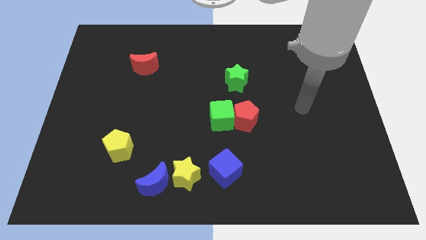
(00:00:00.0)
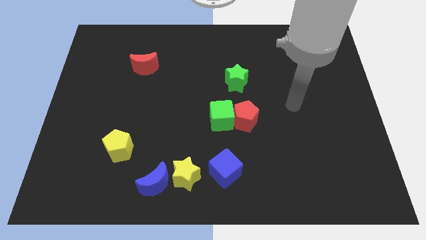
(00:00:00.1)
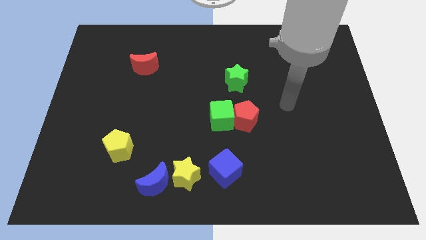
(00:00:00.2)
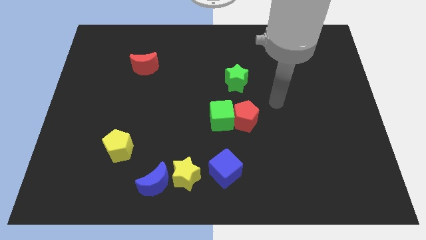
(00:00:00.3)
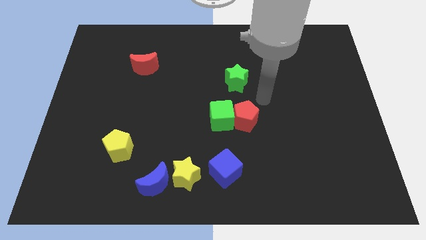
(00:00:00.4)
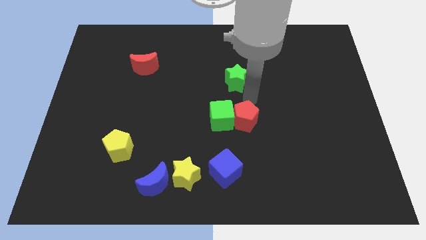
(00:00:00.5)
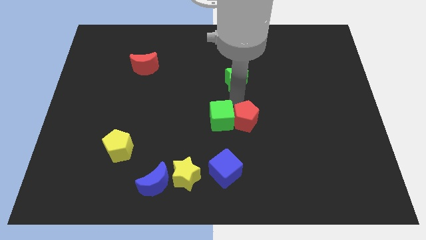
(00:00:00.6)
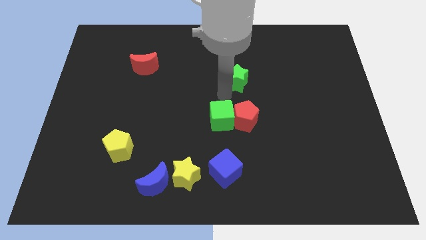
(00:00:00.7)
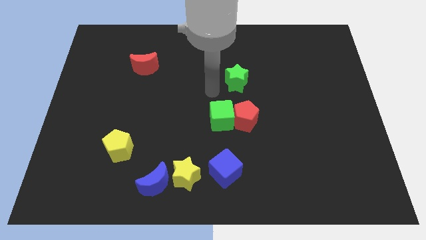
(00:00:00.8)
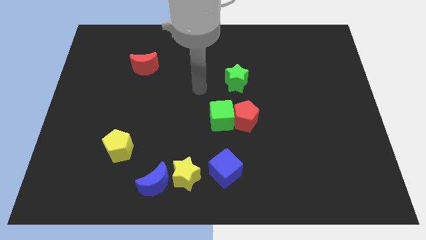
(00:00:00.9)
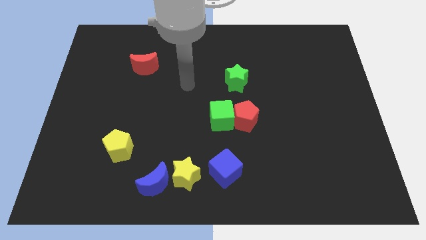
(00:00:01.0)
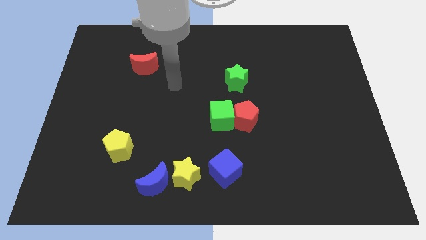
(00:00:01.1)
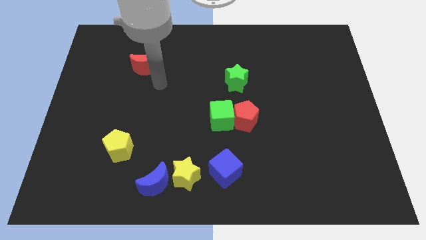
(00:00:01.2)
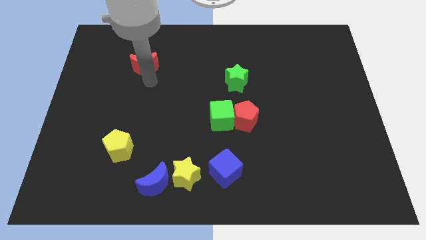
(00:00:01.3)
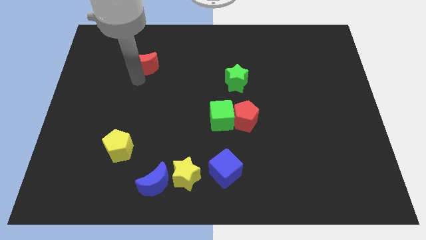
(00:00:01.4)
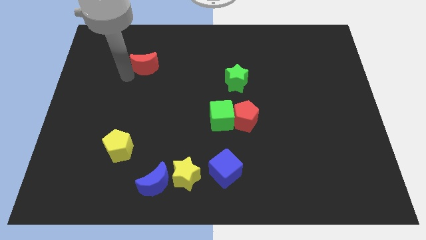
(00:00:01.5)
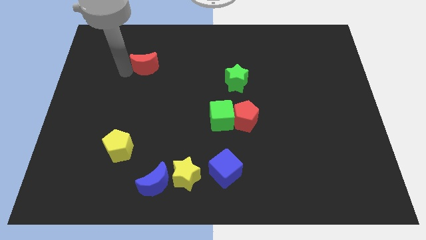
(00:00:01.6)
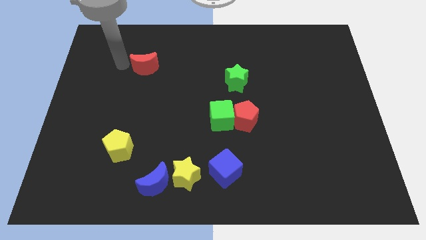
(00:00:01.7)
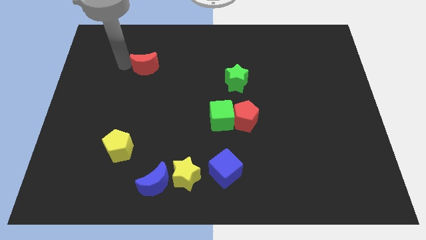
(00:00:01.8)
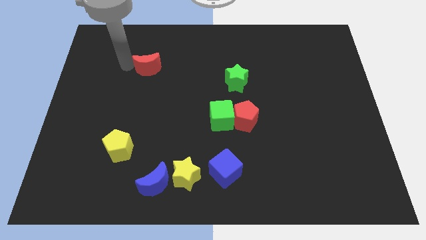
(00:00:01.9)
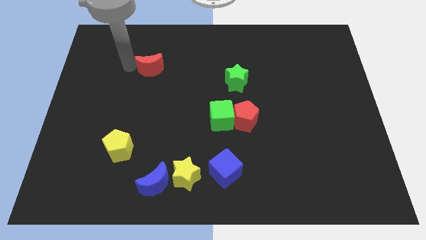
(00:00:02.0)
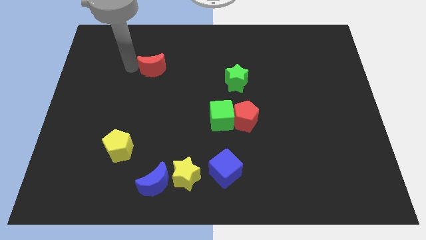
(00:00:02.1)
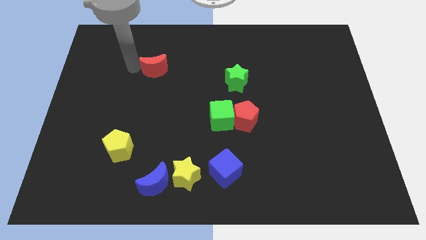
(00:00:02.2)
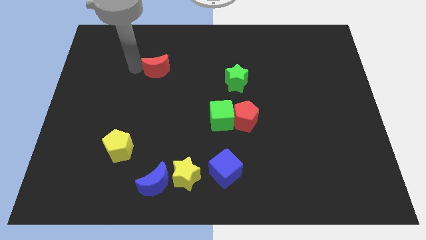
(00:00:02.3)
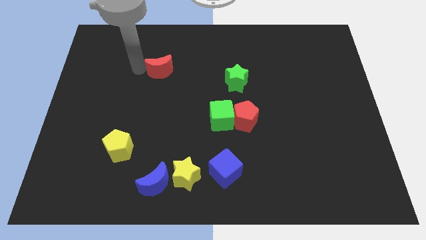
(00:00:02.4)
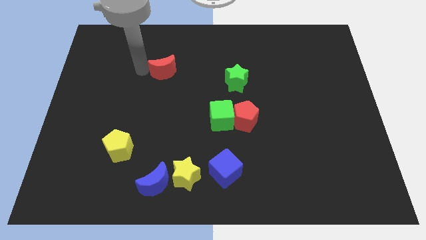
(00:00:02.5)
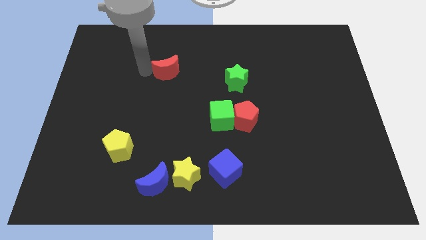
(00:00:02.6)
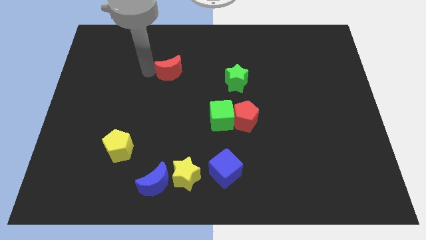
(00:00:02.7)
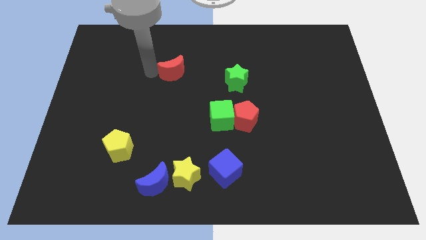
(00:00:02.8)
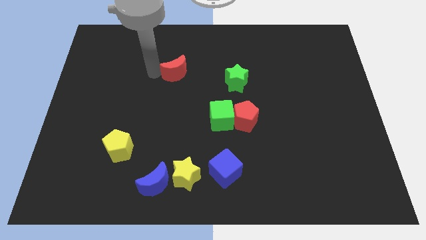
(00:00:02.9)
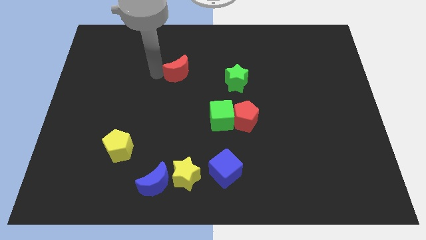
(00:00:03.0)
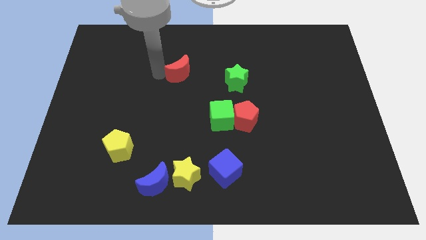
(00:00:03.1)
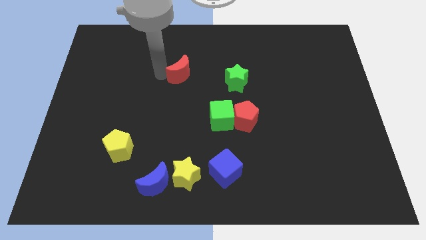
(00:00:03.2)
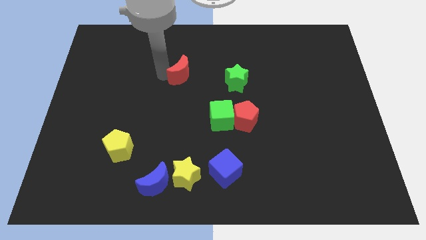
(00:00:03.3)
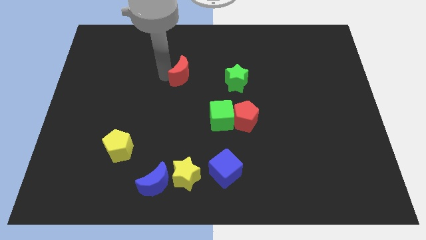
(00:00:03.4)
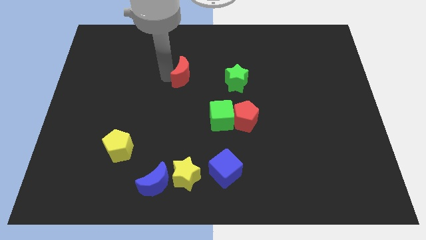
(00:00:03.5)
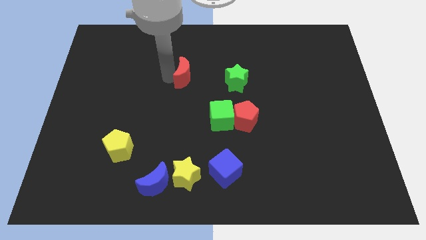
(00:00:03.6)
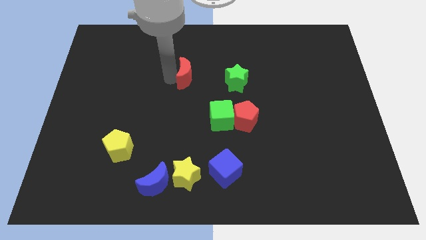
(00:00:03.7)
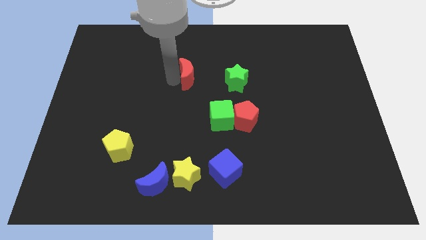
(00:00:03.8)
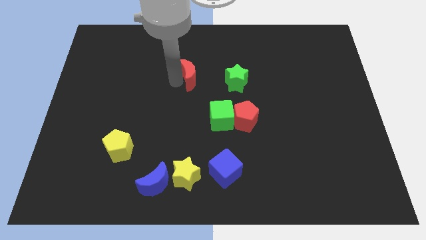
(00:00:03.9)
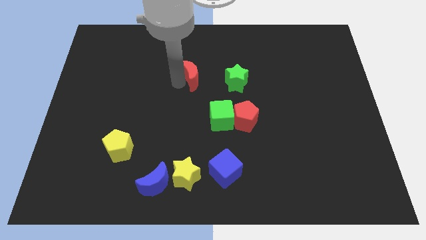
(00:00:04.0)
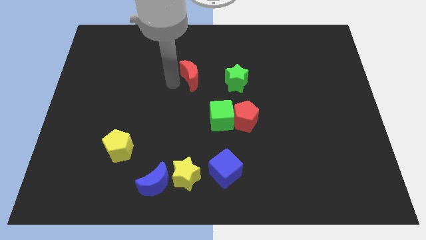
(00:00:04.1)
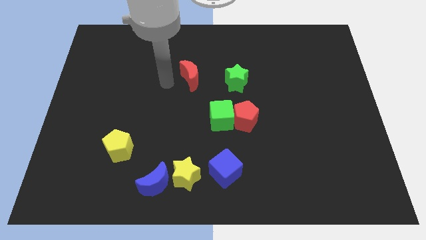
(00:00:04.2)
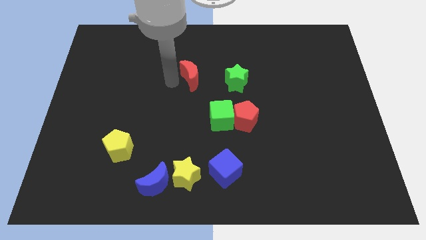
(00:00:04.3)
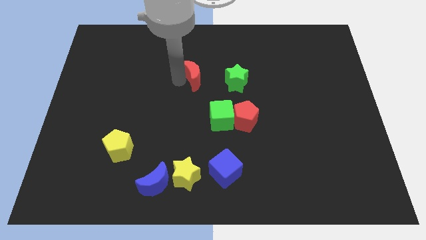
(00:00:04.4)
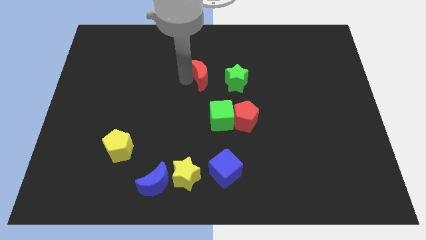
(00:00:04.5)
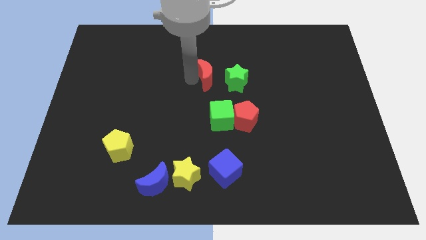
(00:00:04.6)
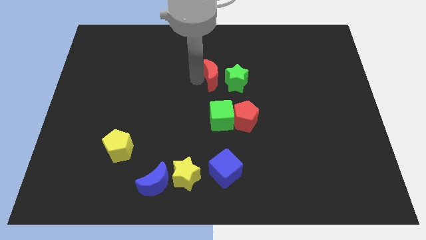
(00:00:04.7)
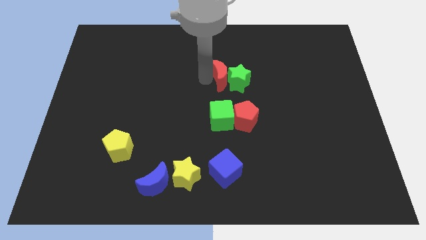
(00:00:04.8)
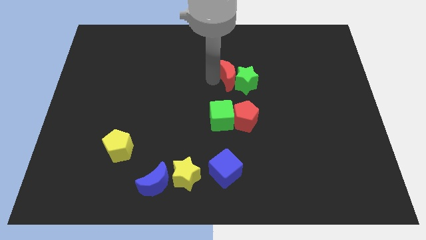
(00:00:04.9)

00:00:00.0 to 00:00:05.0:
move the red moon right

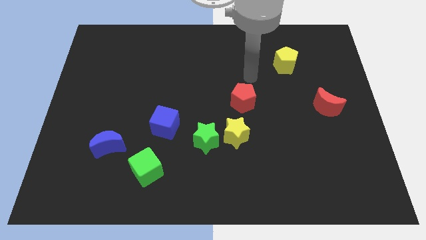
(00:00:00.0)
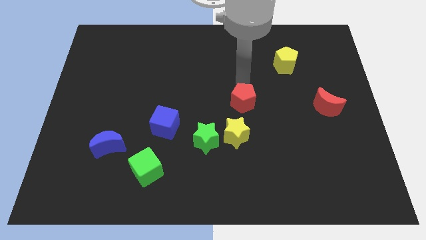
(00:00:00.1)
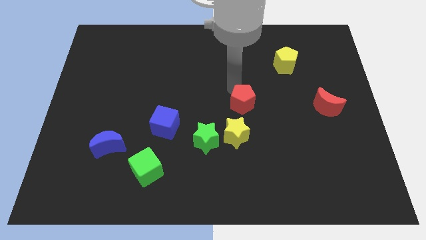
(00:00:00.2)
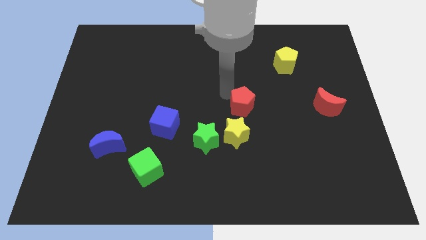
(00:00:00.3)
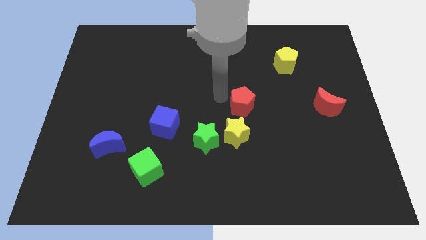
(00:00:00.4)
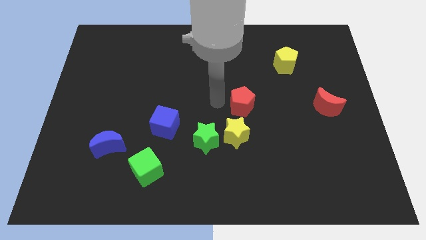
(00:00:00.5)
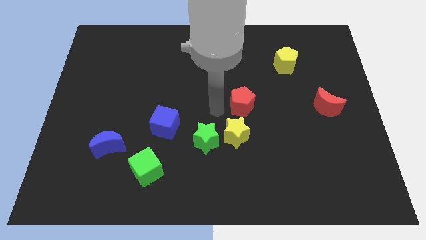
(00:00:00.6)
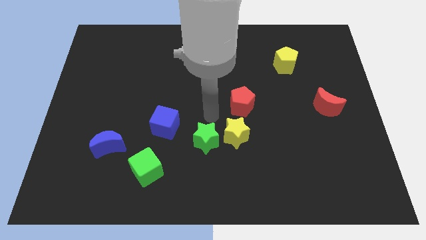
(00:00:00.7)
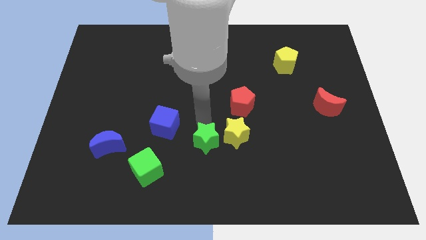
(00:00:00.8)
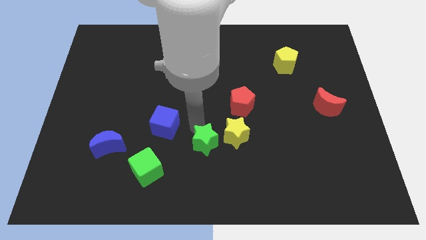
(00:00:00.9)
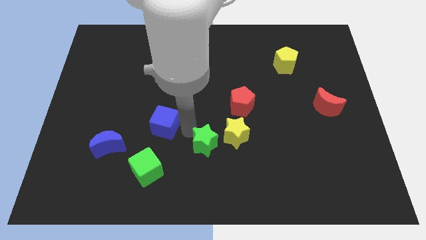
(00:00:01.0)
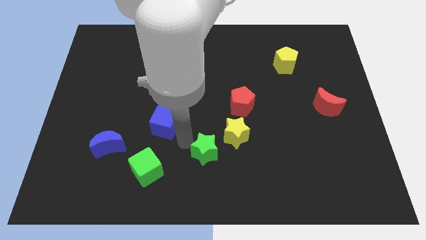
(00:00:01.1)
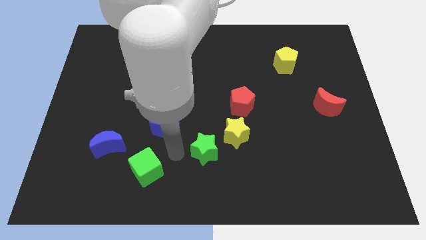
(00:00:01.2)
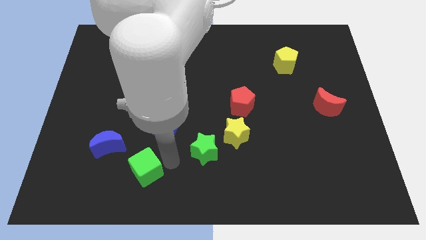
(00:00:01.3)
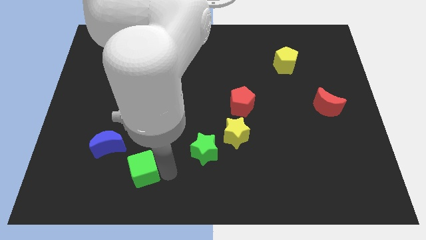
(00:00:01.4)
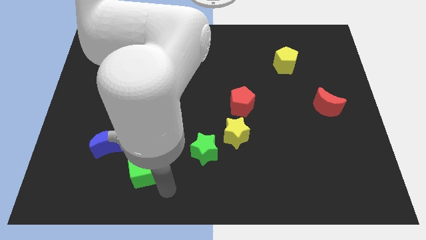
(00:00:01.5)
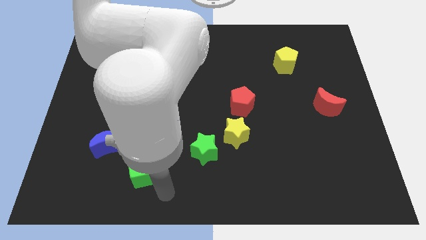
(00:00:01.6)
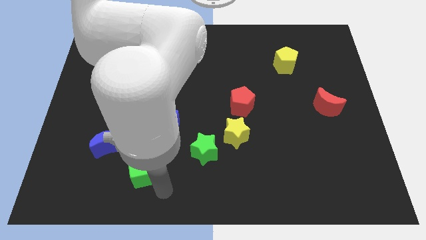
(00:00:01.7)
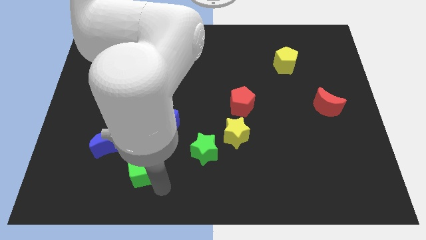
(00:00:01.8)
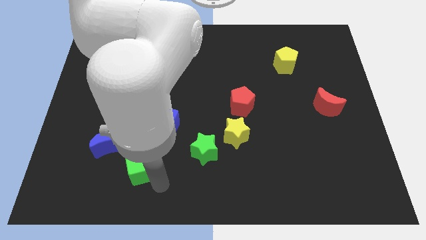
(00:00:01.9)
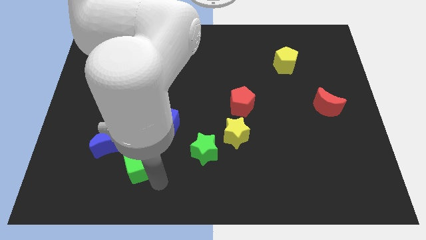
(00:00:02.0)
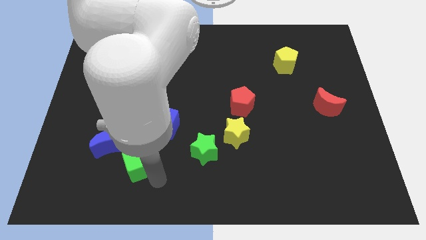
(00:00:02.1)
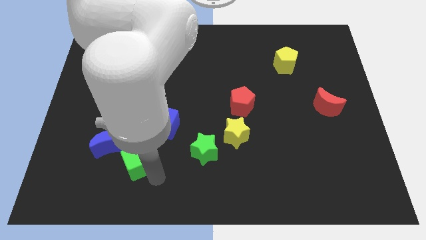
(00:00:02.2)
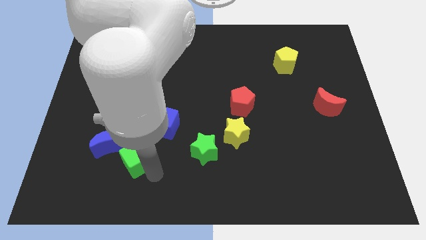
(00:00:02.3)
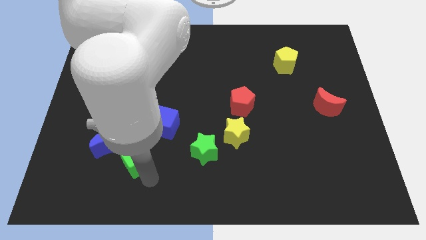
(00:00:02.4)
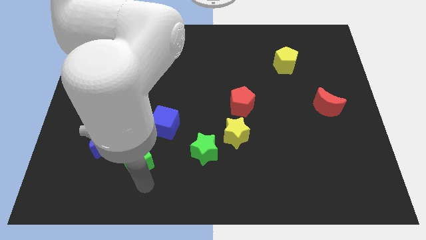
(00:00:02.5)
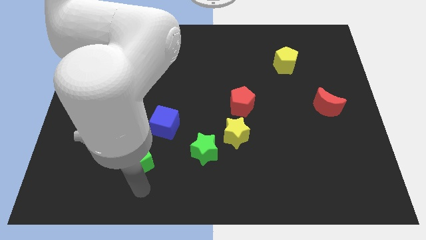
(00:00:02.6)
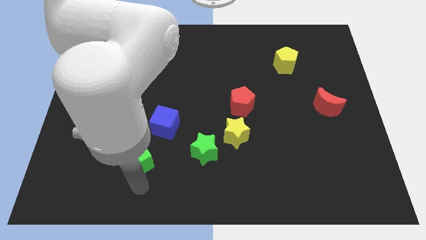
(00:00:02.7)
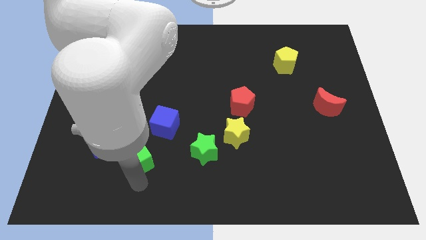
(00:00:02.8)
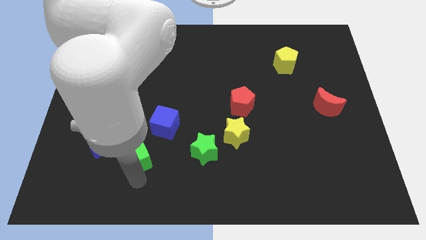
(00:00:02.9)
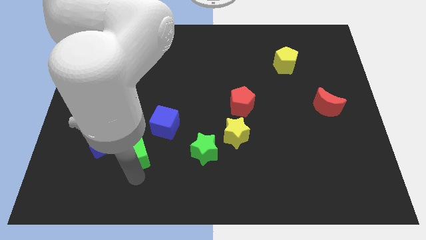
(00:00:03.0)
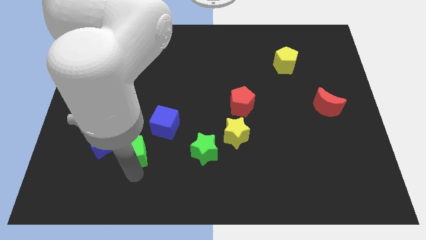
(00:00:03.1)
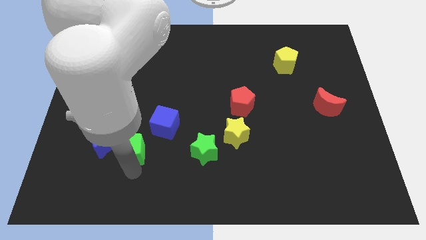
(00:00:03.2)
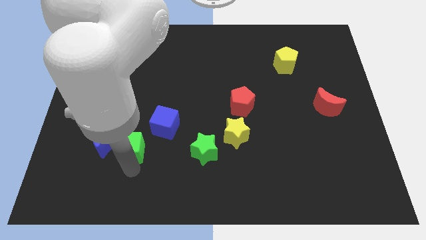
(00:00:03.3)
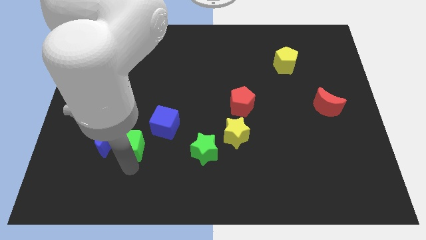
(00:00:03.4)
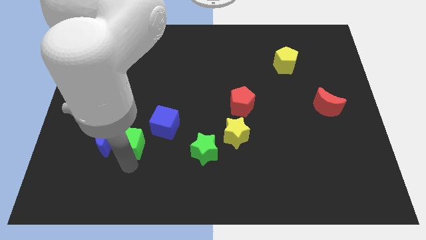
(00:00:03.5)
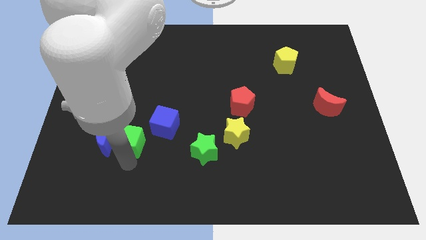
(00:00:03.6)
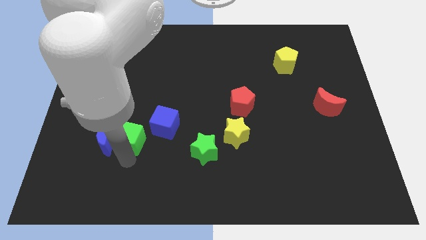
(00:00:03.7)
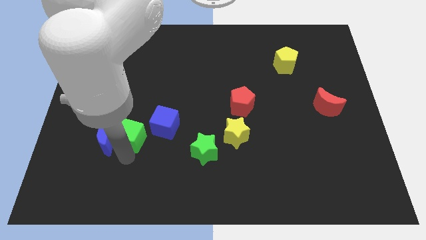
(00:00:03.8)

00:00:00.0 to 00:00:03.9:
move the green cube somewhat up
